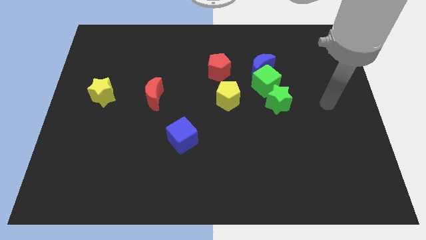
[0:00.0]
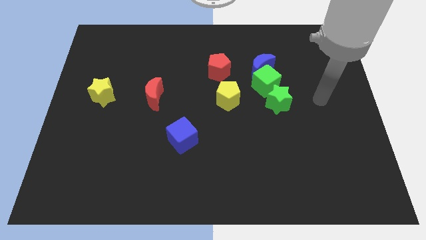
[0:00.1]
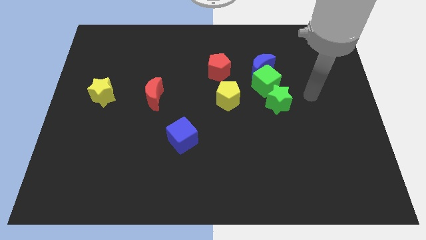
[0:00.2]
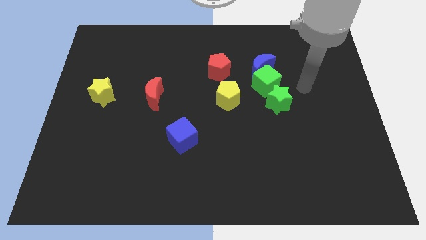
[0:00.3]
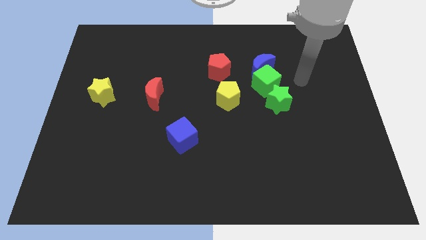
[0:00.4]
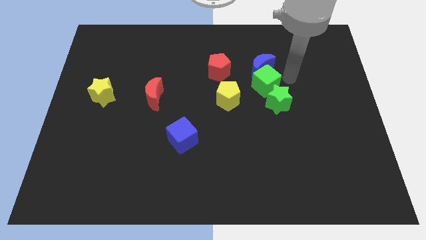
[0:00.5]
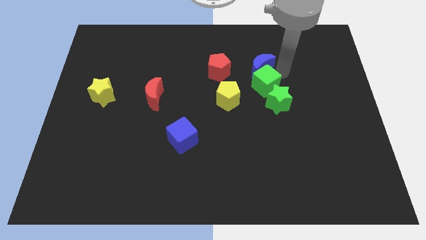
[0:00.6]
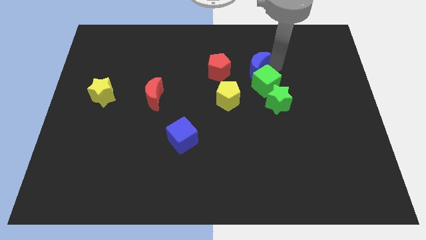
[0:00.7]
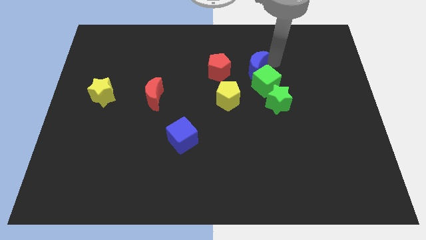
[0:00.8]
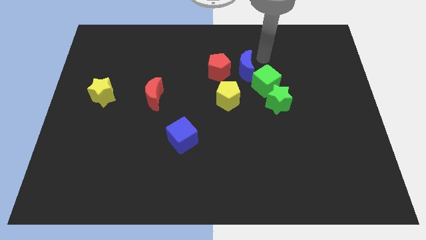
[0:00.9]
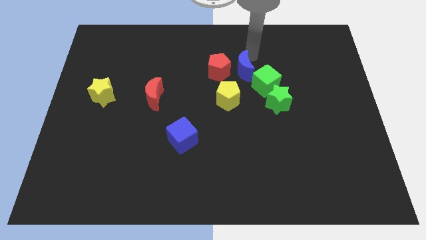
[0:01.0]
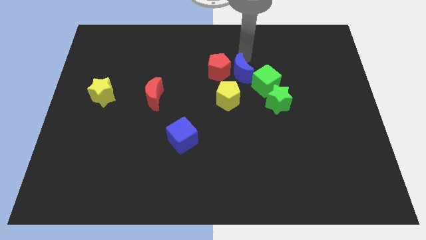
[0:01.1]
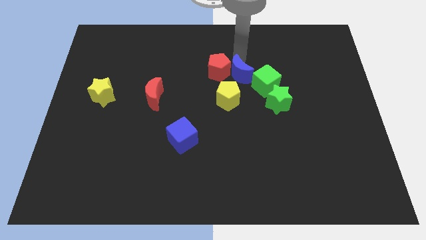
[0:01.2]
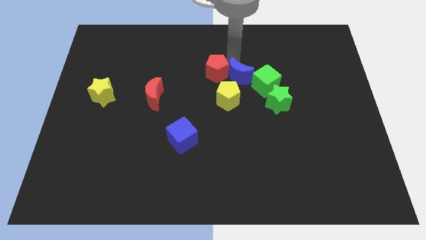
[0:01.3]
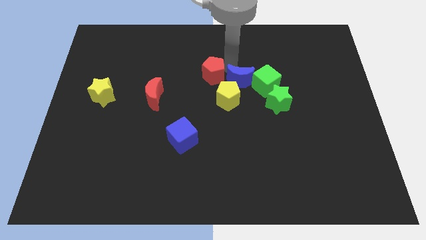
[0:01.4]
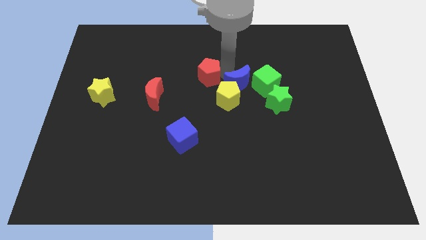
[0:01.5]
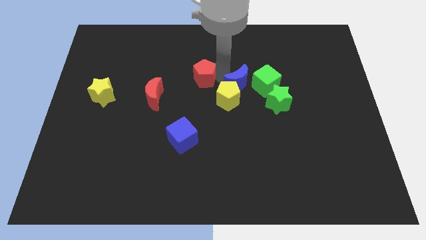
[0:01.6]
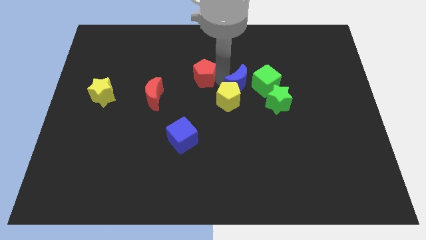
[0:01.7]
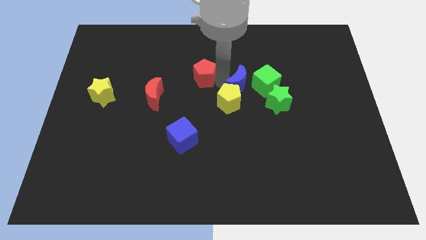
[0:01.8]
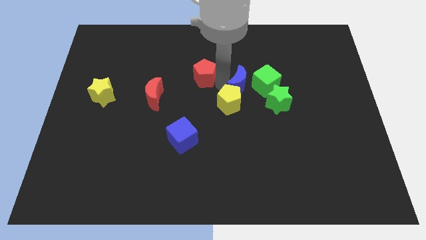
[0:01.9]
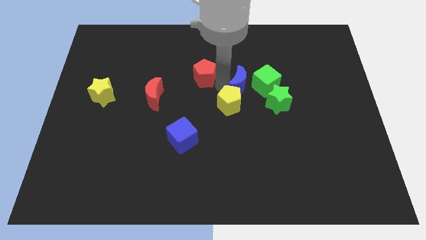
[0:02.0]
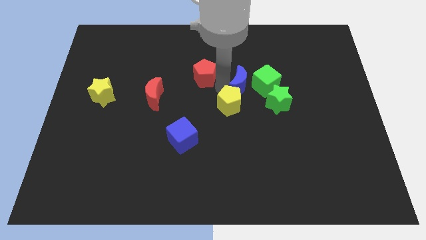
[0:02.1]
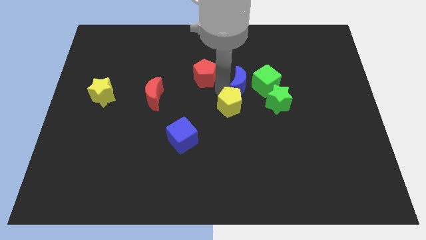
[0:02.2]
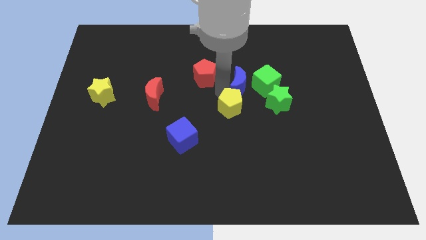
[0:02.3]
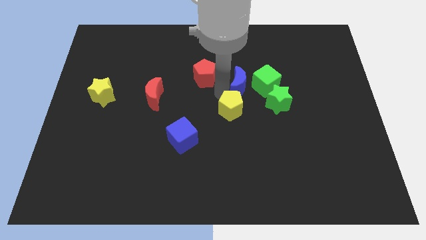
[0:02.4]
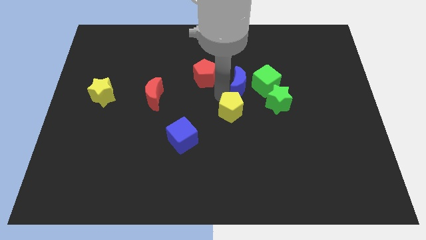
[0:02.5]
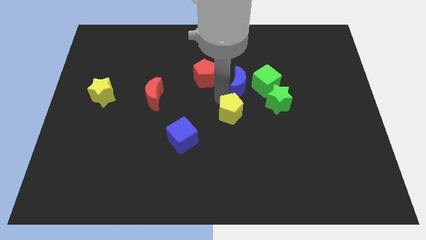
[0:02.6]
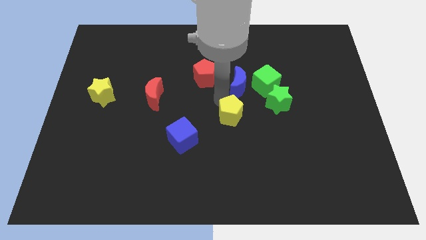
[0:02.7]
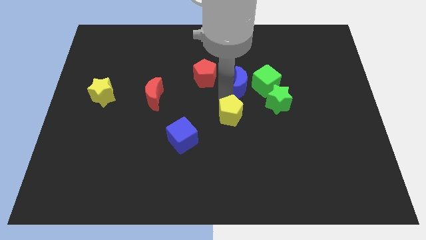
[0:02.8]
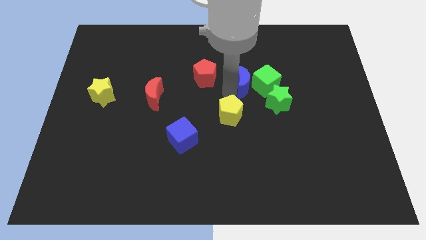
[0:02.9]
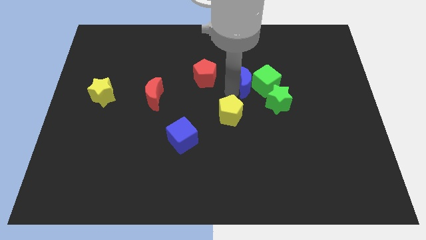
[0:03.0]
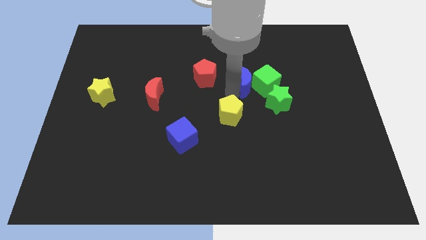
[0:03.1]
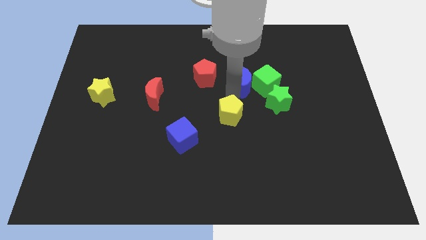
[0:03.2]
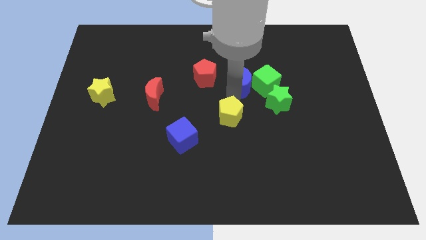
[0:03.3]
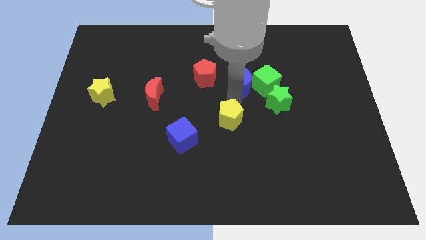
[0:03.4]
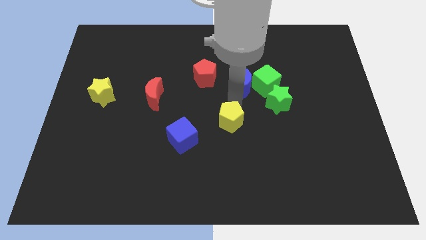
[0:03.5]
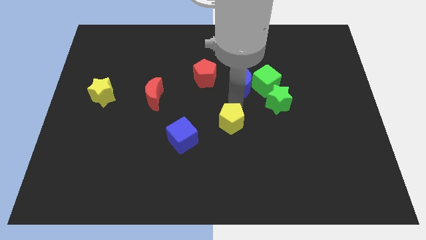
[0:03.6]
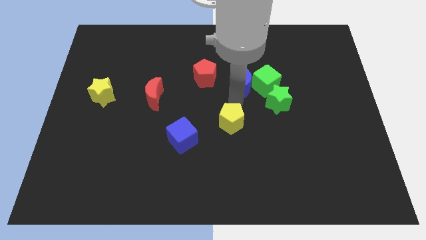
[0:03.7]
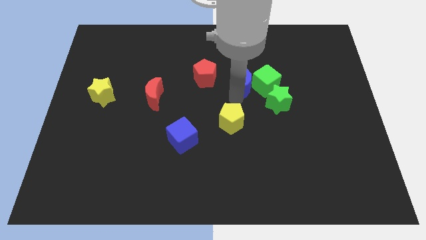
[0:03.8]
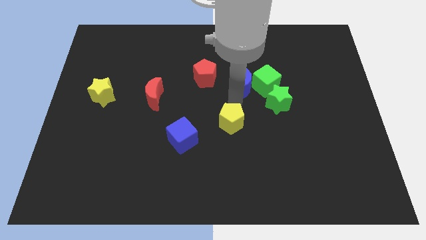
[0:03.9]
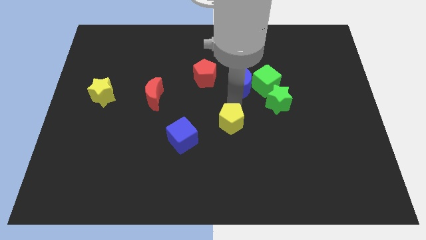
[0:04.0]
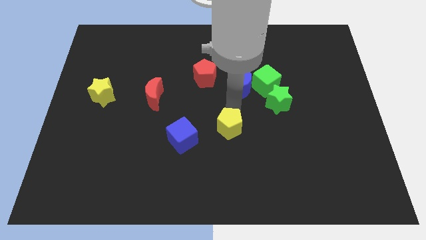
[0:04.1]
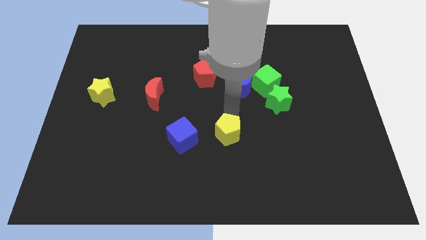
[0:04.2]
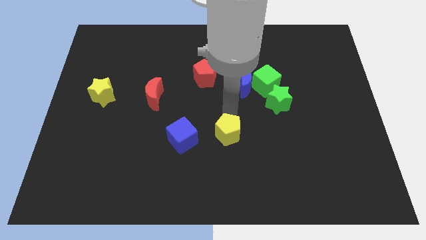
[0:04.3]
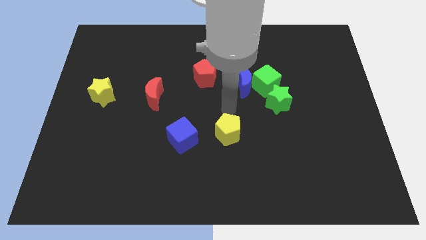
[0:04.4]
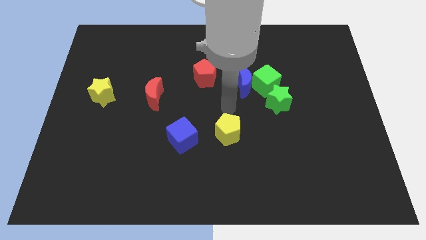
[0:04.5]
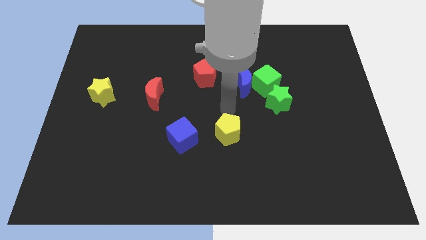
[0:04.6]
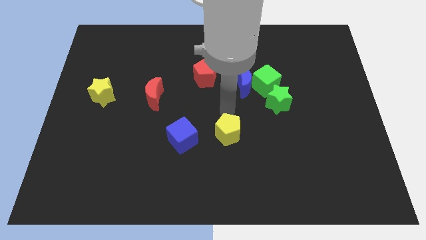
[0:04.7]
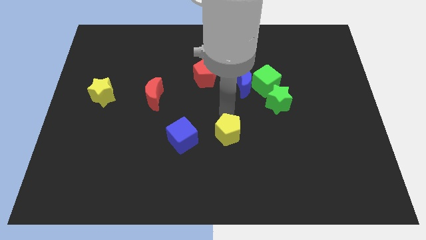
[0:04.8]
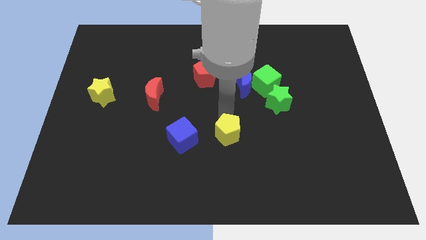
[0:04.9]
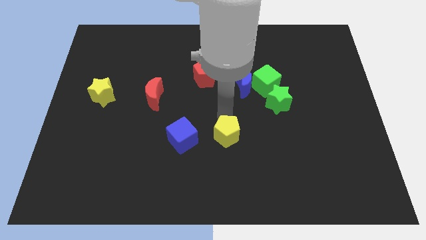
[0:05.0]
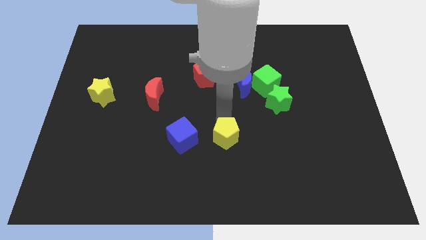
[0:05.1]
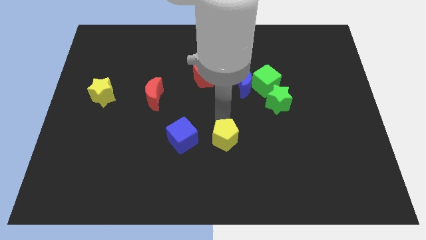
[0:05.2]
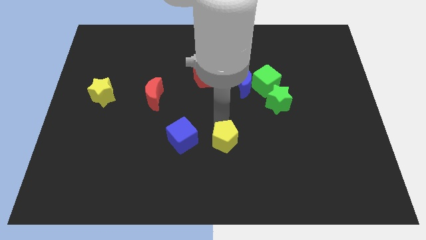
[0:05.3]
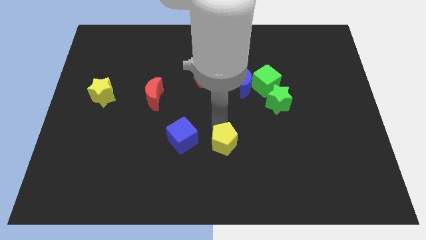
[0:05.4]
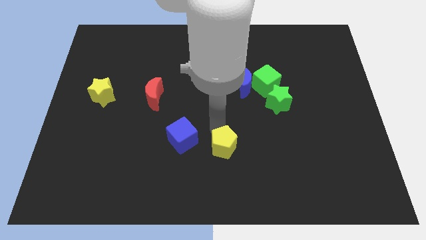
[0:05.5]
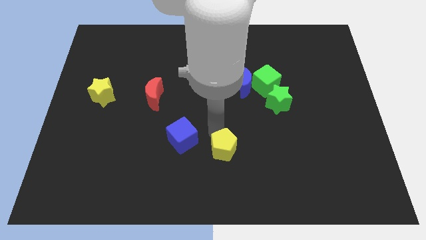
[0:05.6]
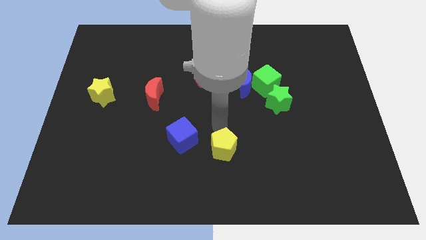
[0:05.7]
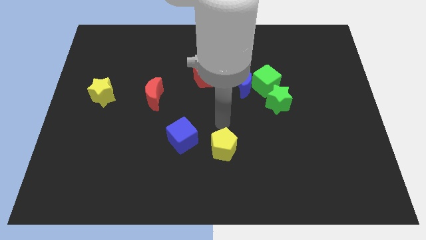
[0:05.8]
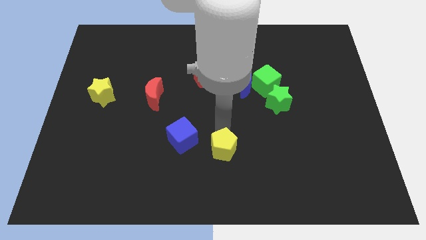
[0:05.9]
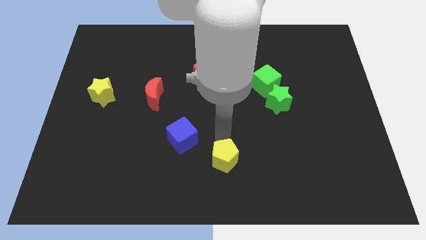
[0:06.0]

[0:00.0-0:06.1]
slide the yellow pentagon to the bottom side
